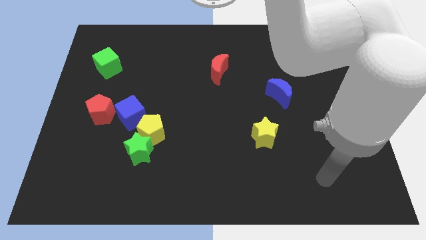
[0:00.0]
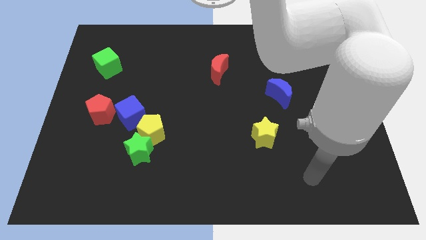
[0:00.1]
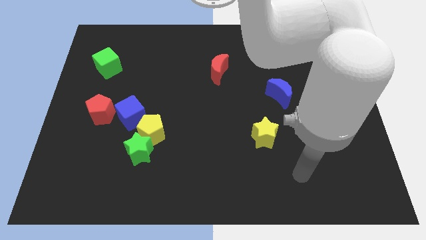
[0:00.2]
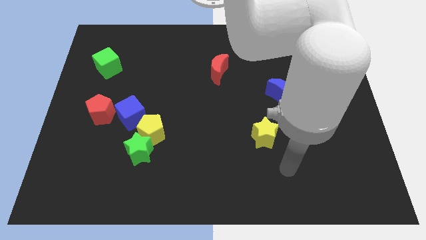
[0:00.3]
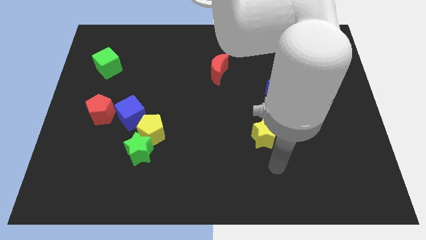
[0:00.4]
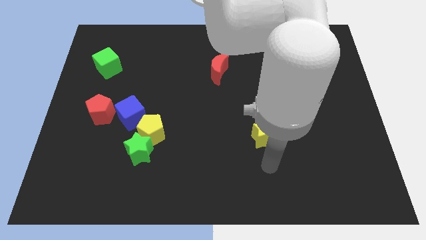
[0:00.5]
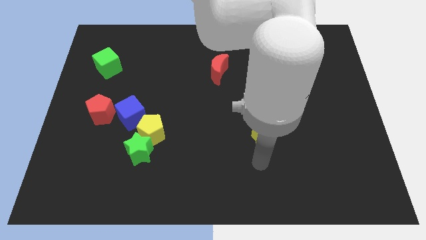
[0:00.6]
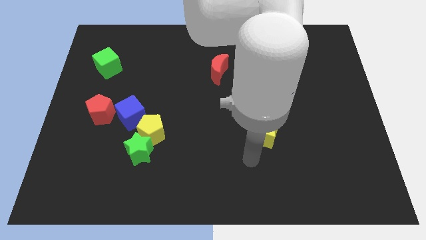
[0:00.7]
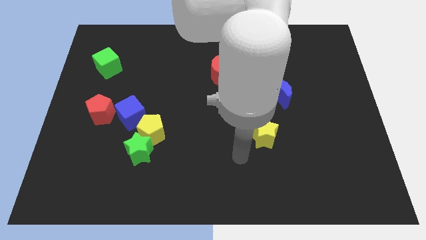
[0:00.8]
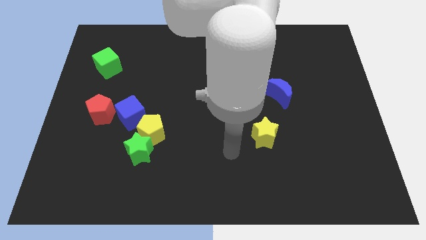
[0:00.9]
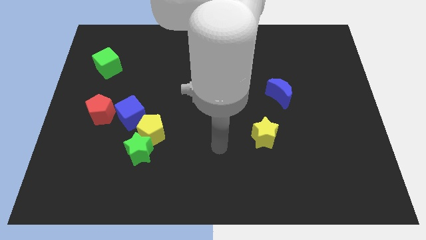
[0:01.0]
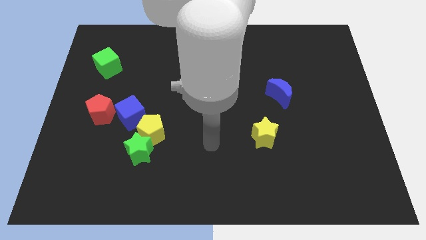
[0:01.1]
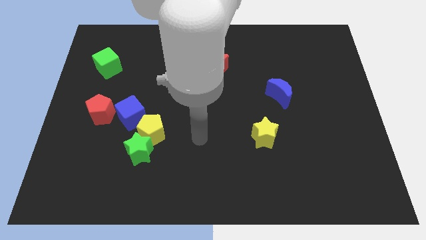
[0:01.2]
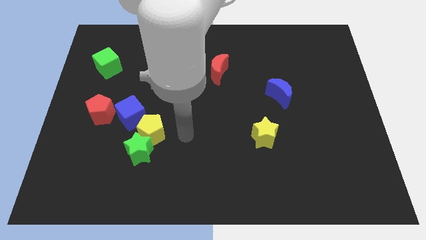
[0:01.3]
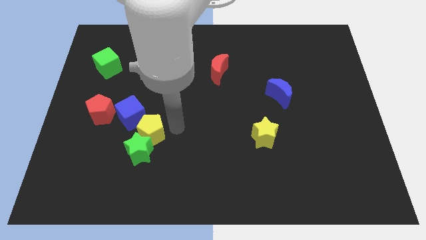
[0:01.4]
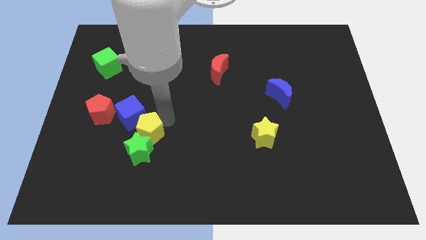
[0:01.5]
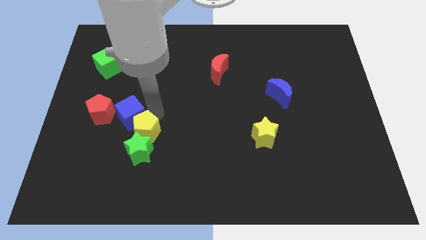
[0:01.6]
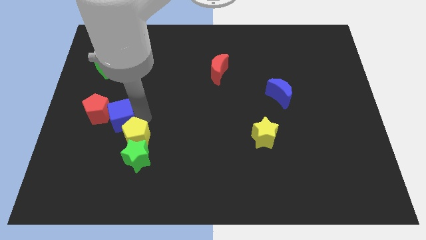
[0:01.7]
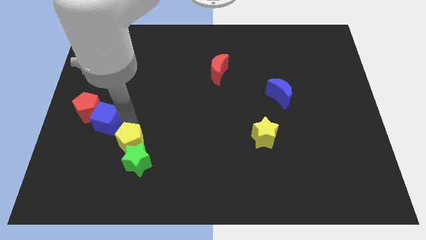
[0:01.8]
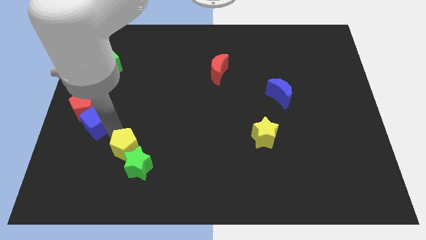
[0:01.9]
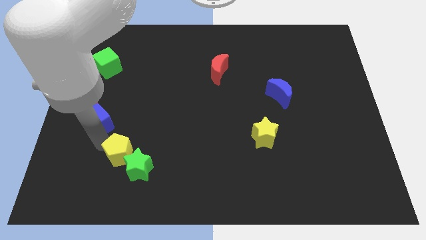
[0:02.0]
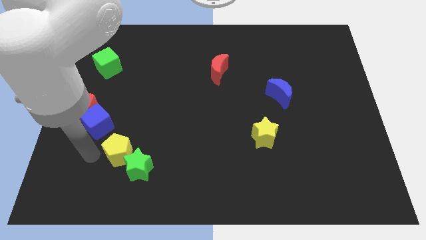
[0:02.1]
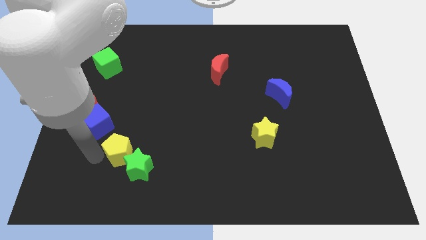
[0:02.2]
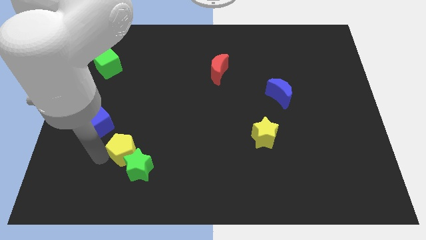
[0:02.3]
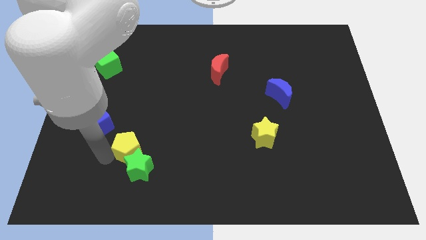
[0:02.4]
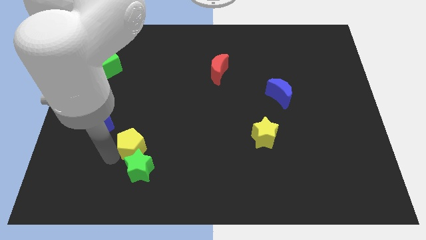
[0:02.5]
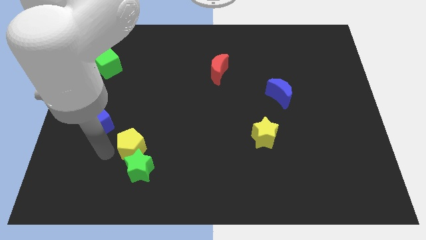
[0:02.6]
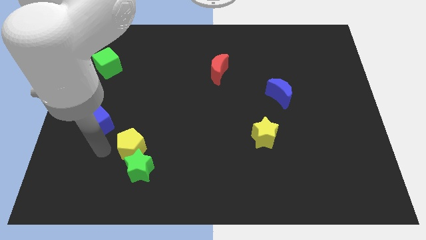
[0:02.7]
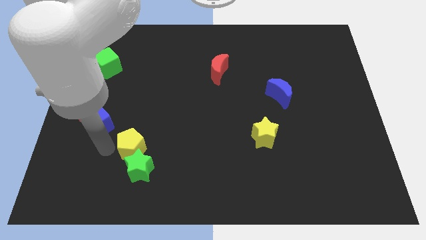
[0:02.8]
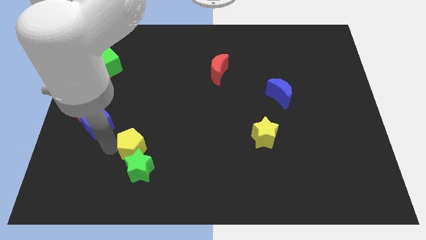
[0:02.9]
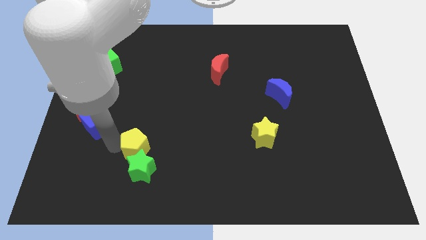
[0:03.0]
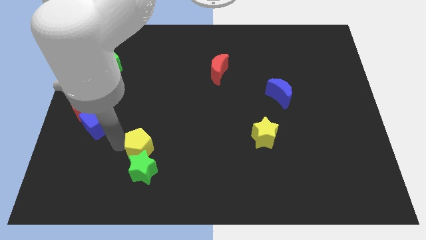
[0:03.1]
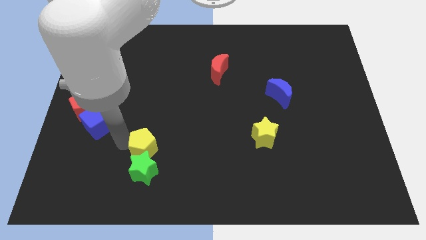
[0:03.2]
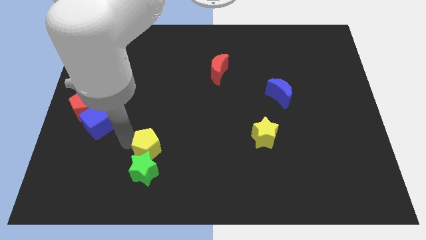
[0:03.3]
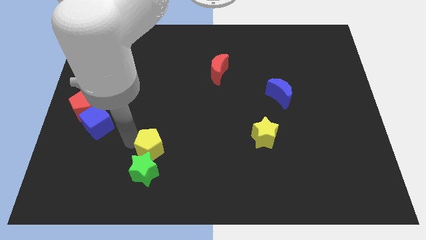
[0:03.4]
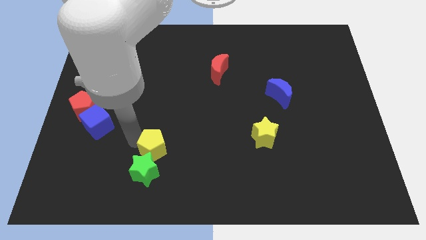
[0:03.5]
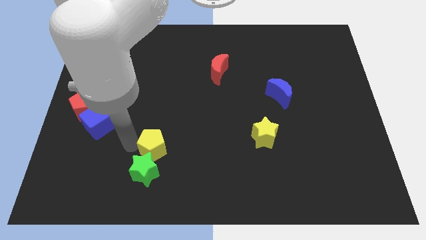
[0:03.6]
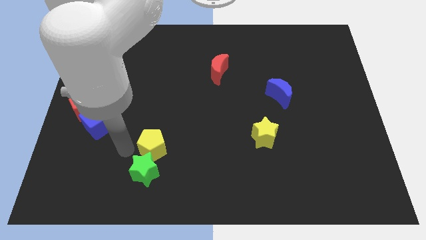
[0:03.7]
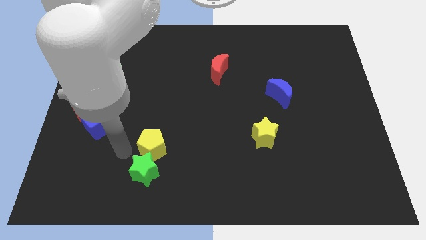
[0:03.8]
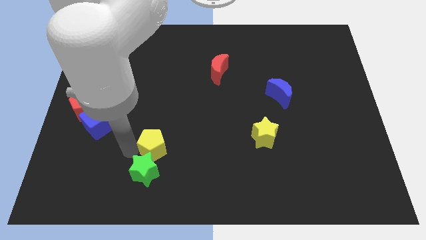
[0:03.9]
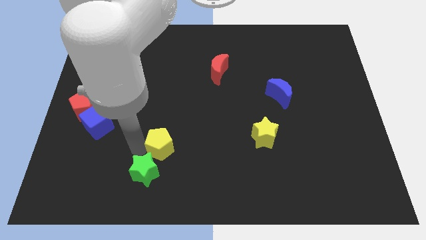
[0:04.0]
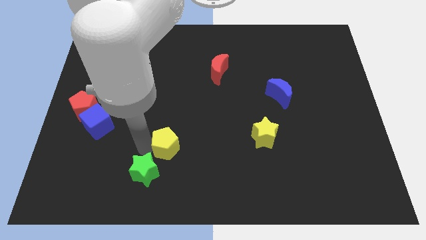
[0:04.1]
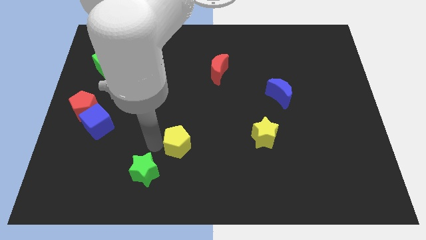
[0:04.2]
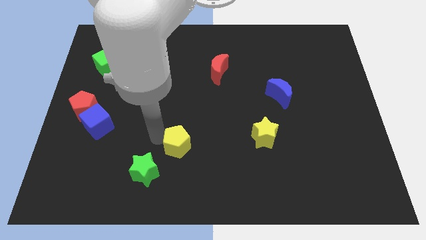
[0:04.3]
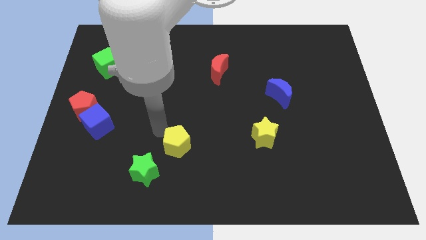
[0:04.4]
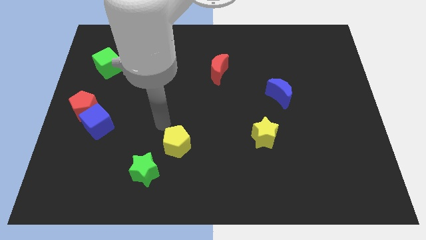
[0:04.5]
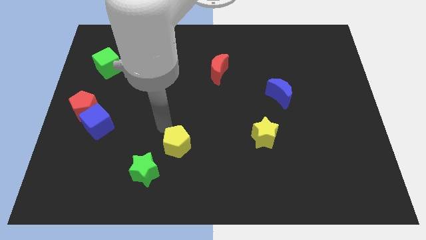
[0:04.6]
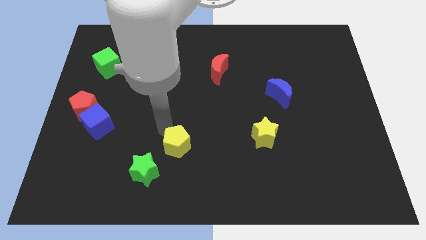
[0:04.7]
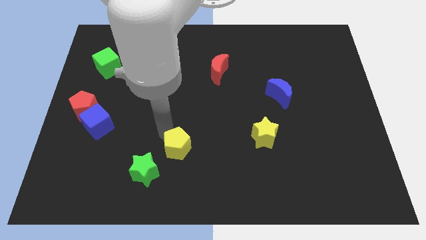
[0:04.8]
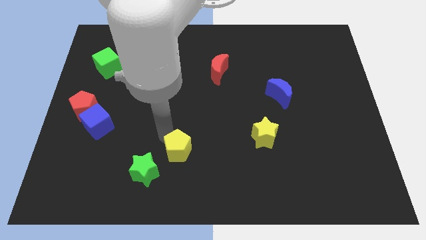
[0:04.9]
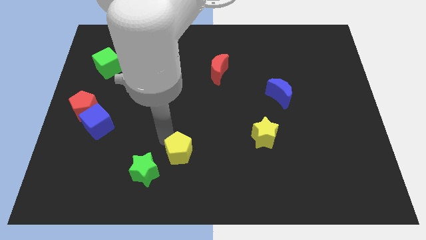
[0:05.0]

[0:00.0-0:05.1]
slide the yellow pentagon just right of the green star
